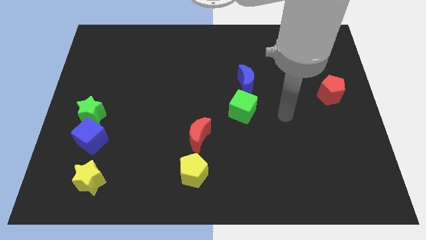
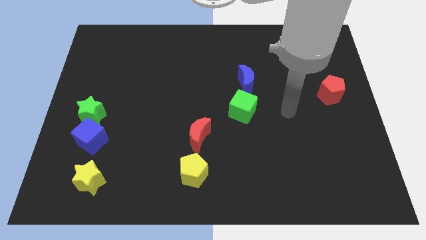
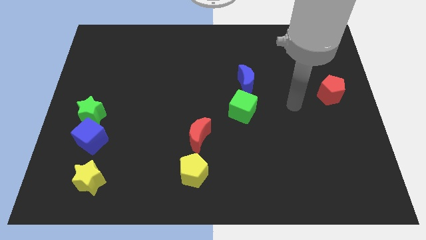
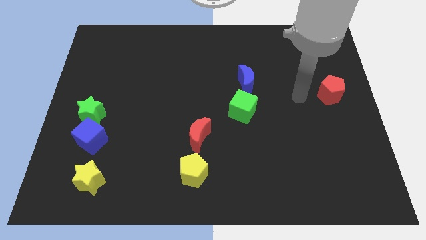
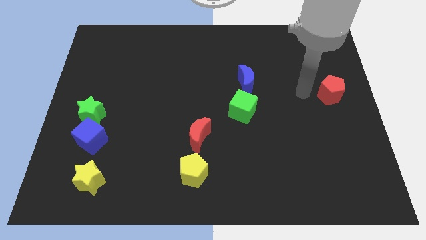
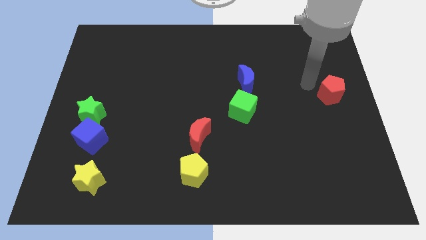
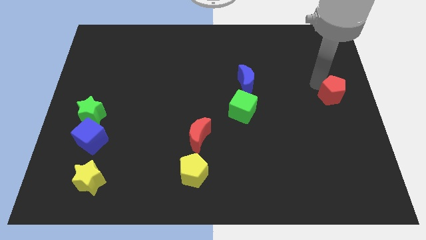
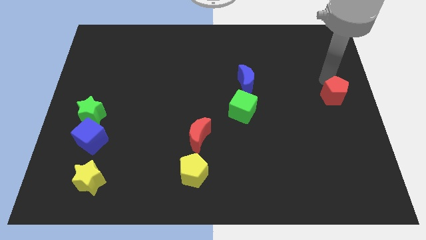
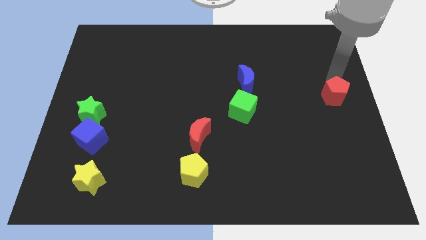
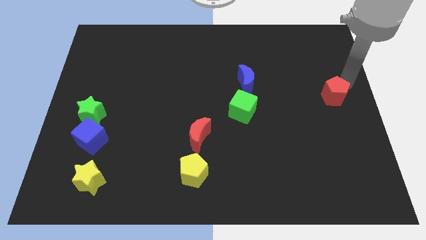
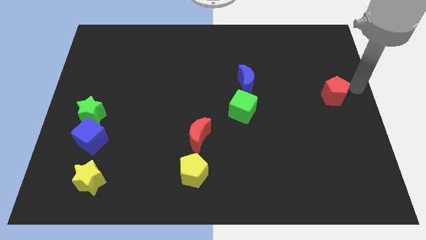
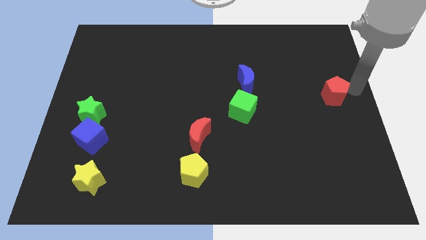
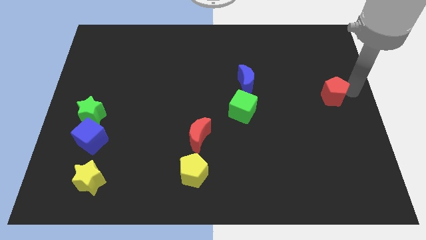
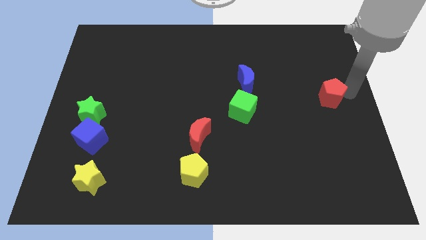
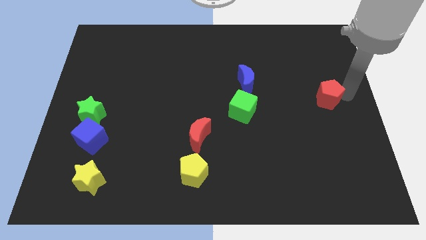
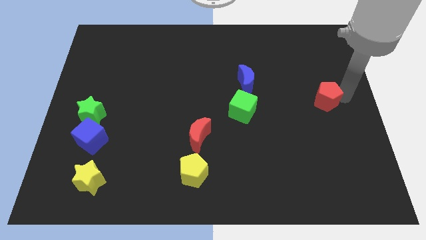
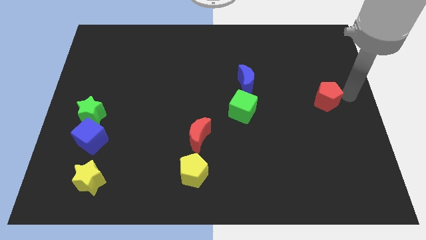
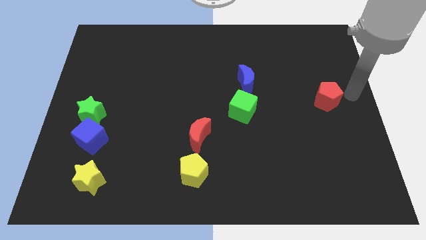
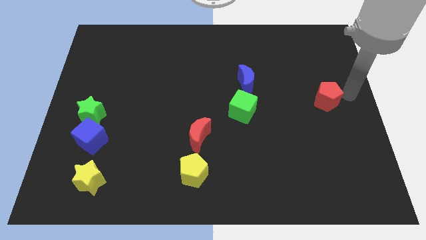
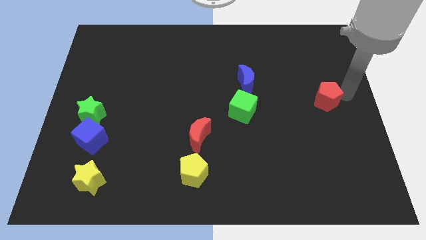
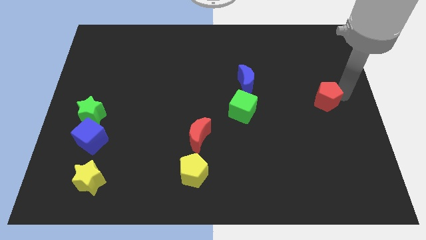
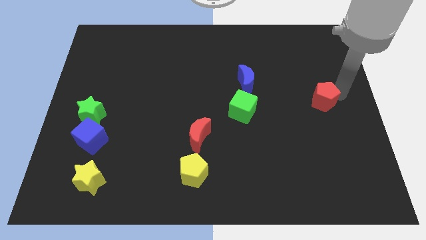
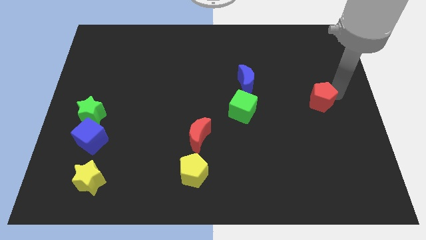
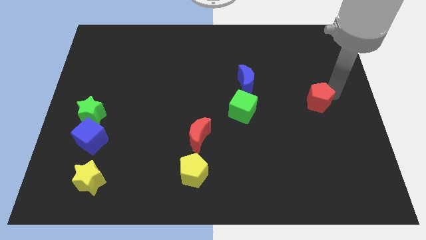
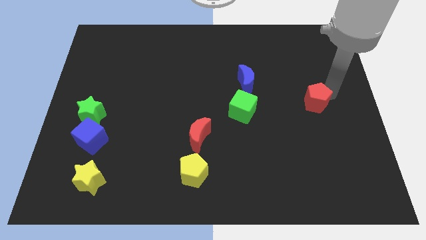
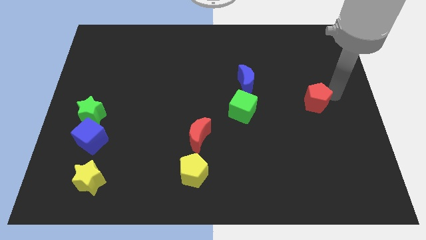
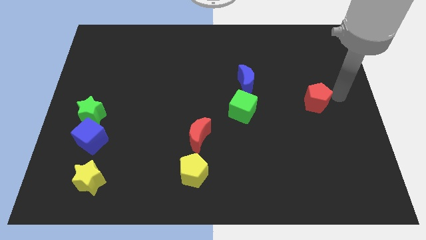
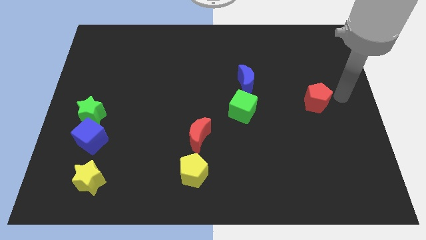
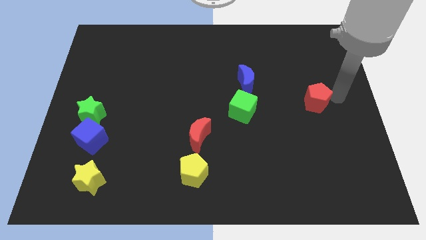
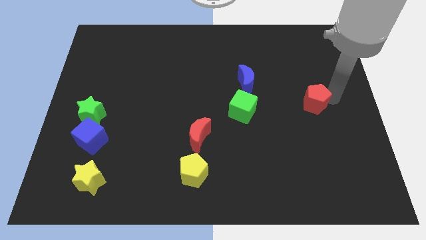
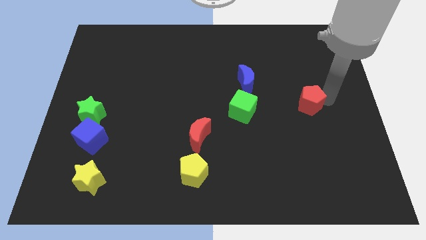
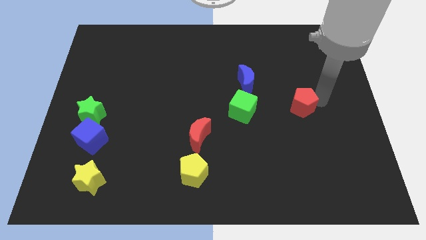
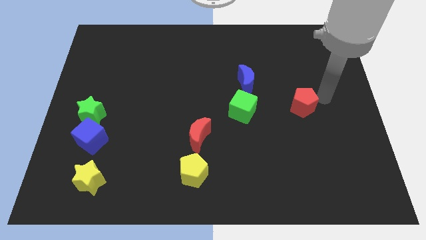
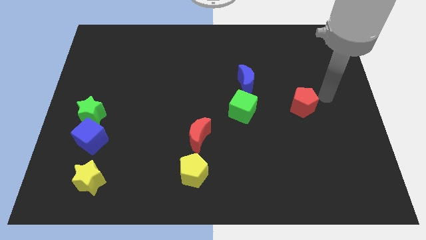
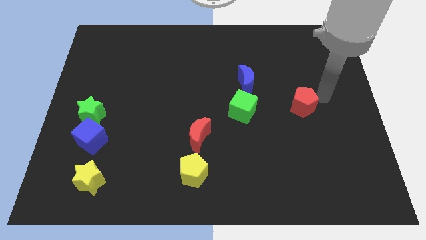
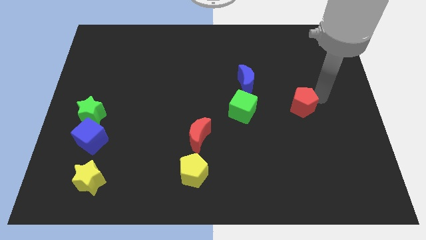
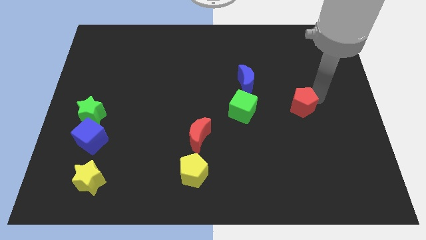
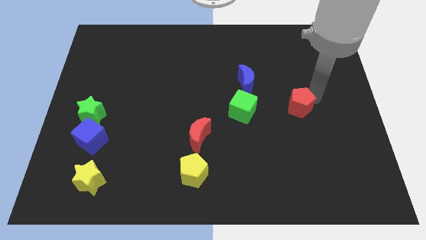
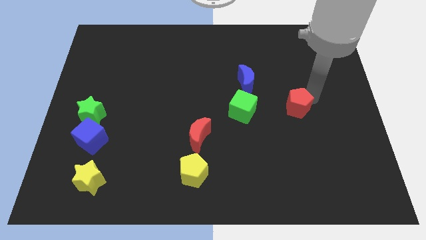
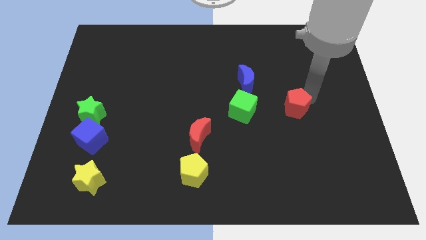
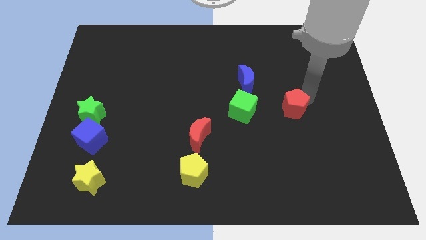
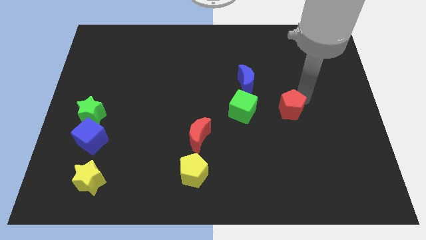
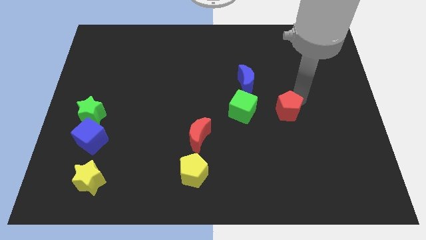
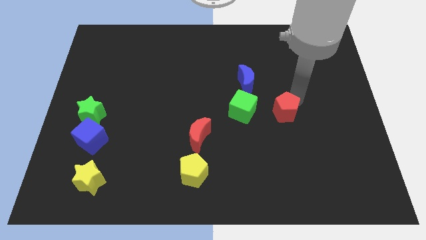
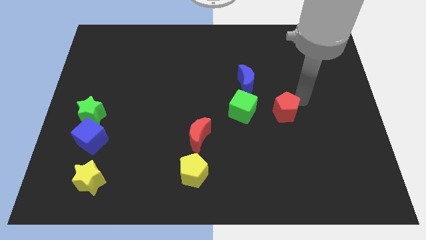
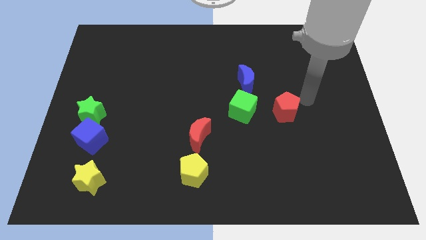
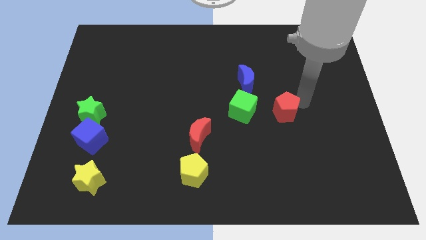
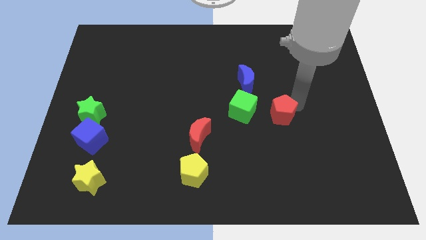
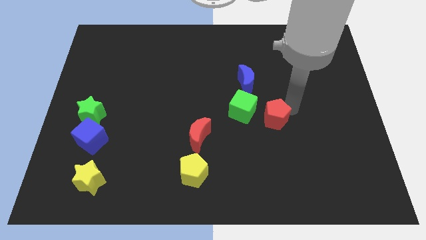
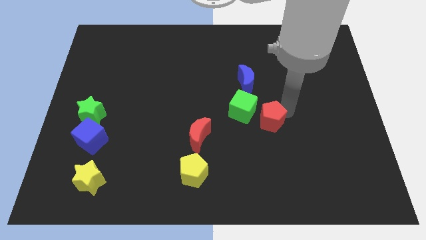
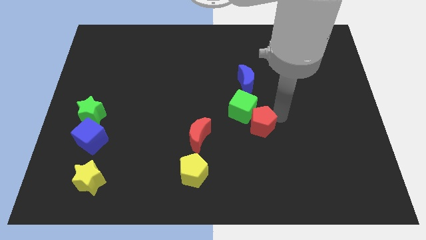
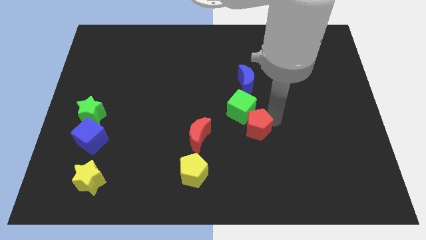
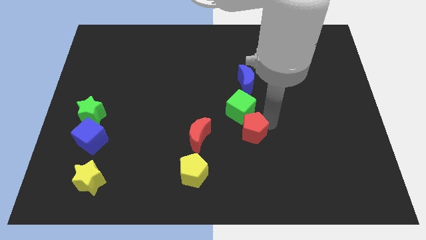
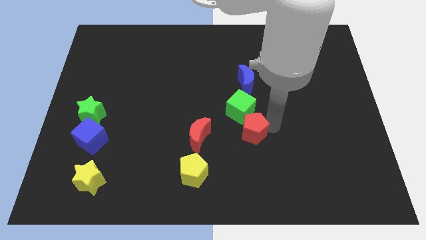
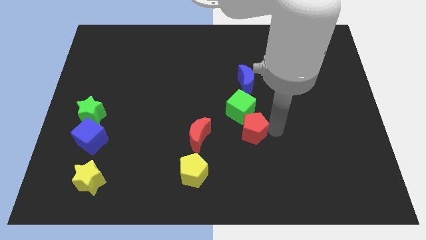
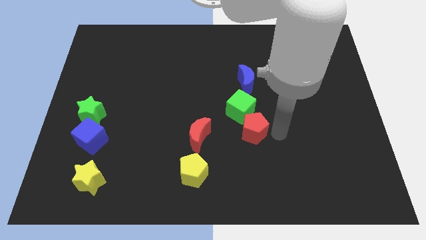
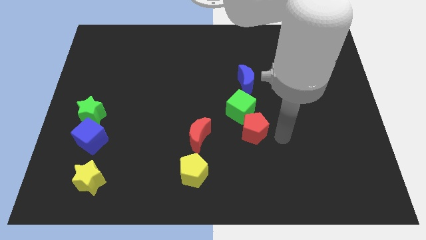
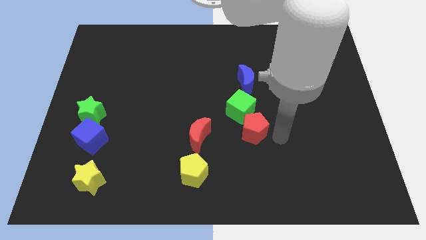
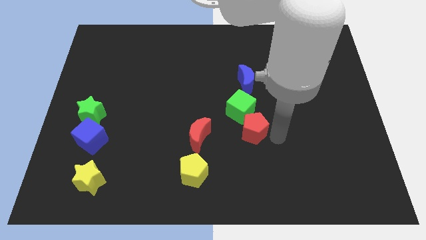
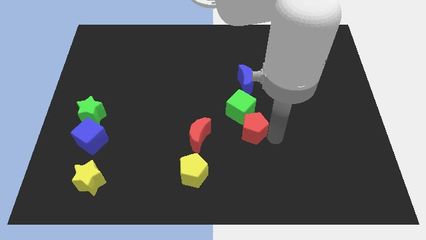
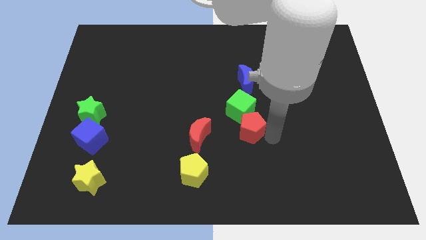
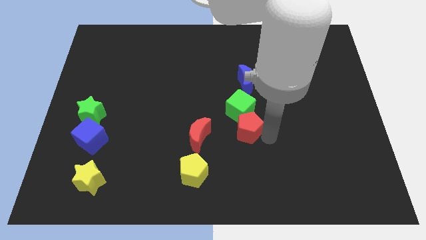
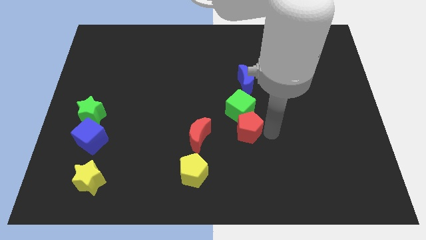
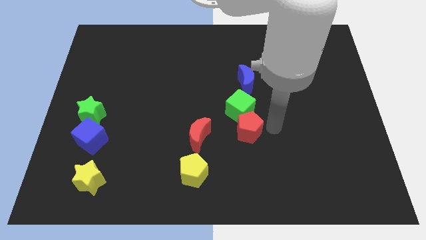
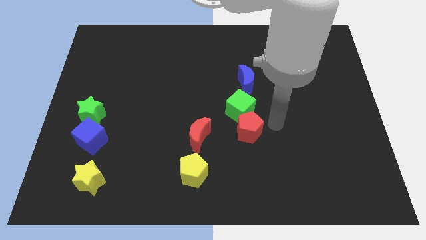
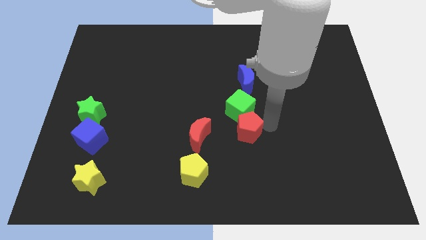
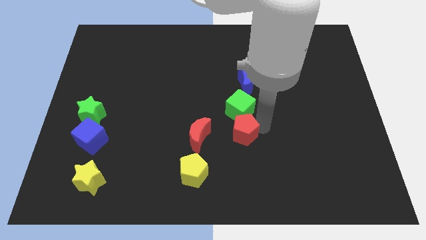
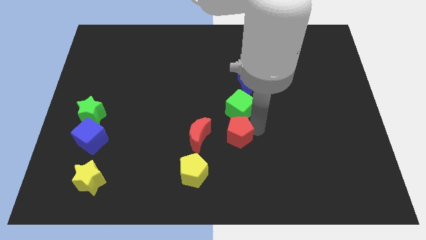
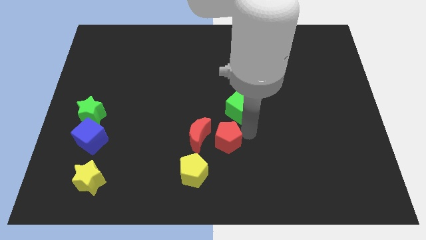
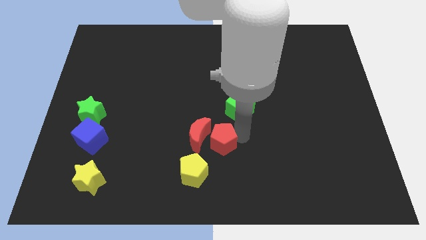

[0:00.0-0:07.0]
push the red pentagon towards the red moon
